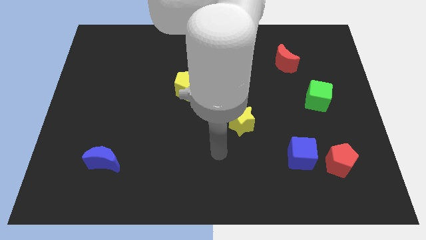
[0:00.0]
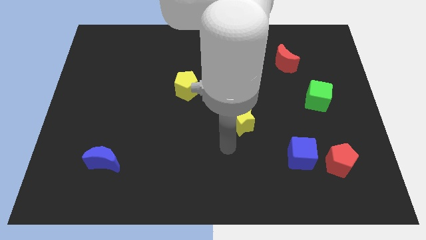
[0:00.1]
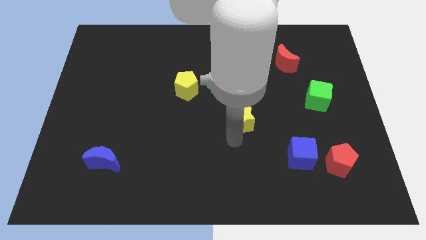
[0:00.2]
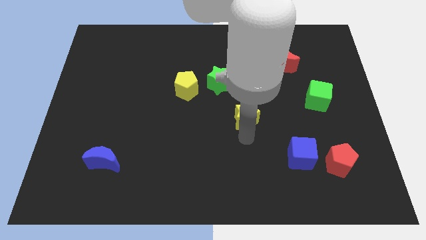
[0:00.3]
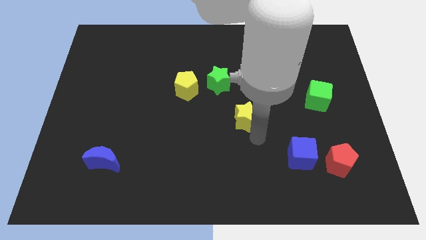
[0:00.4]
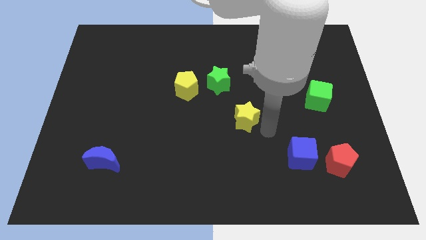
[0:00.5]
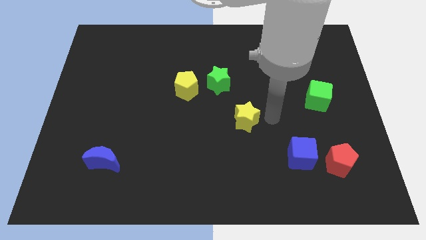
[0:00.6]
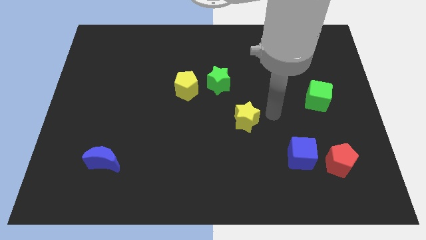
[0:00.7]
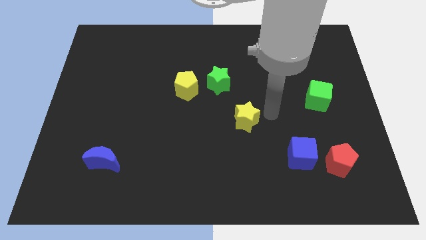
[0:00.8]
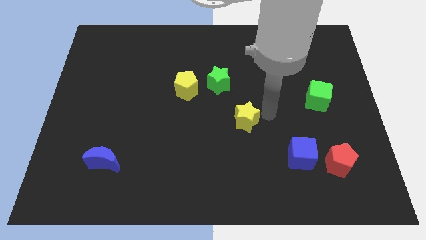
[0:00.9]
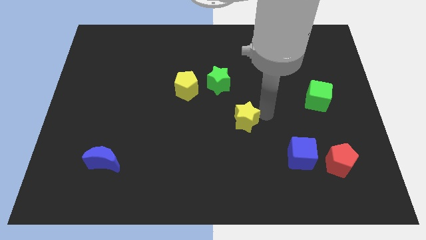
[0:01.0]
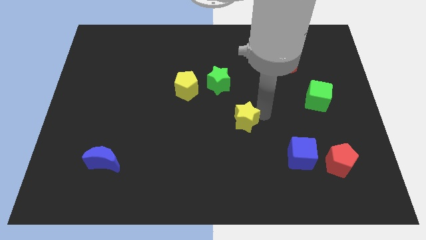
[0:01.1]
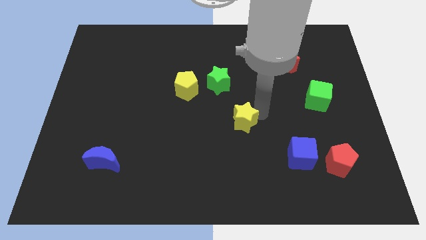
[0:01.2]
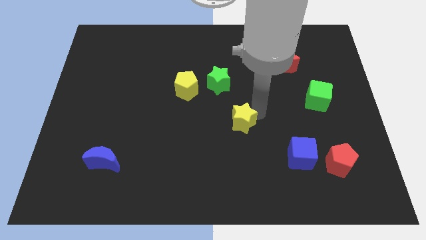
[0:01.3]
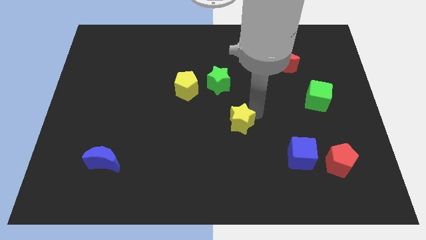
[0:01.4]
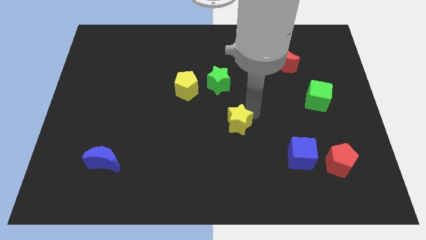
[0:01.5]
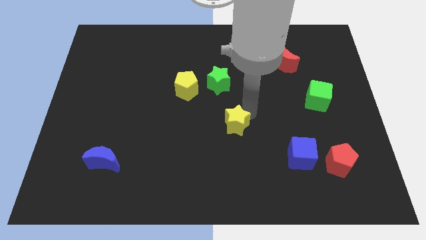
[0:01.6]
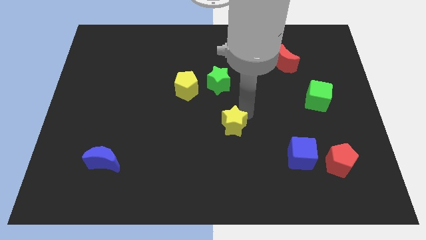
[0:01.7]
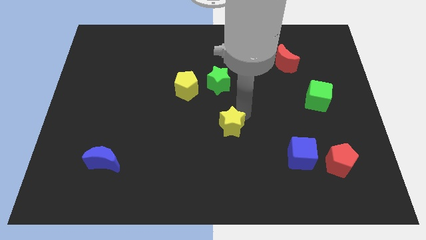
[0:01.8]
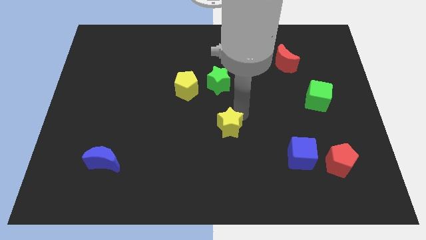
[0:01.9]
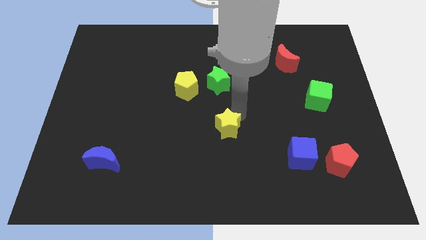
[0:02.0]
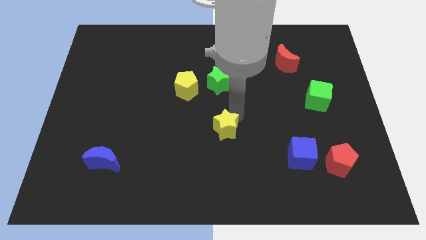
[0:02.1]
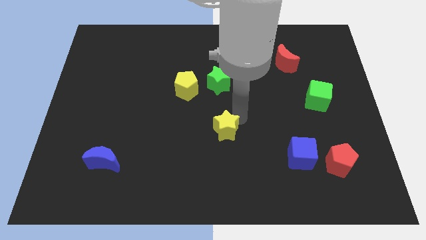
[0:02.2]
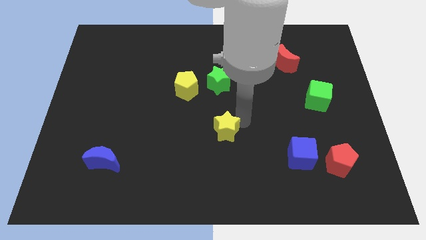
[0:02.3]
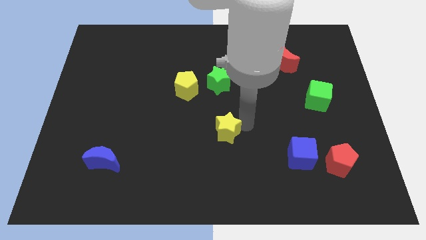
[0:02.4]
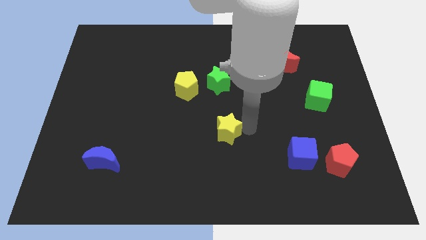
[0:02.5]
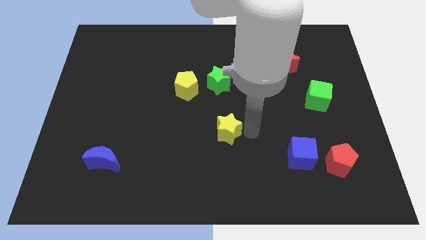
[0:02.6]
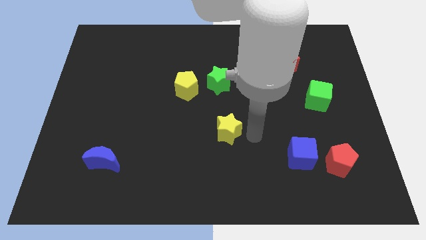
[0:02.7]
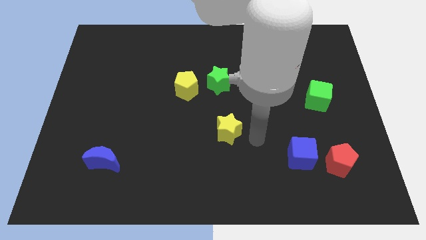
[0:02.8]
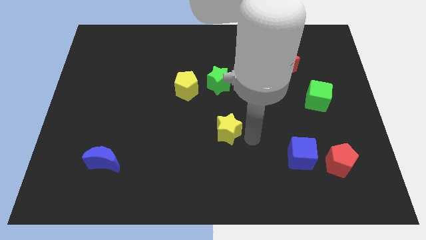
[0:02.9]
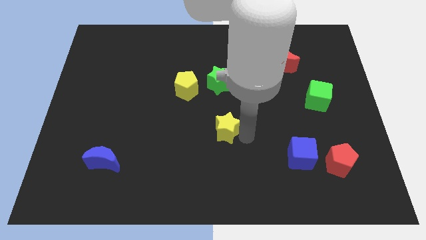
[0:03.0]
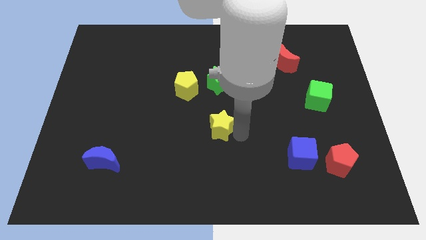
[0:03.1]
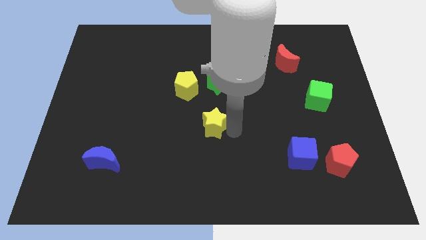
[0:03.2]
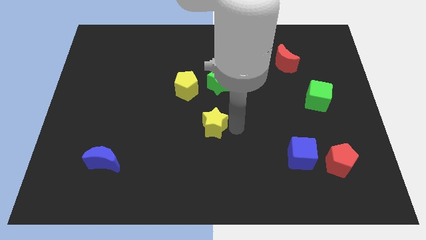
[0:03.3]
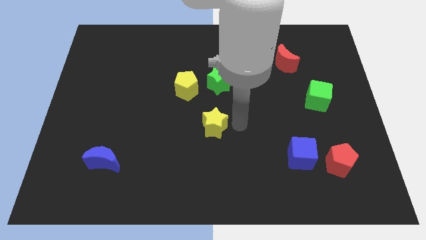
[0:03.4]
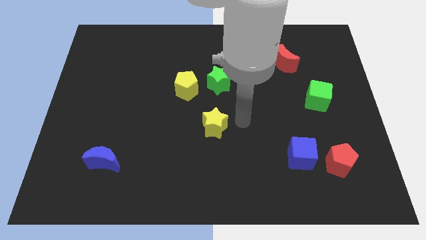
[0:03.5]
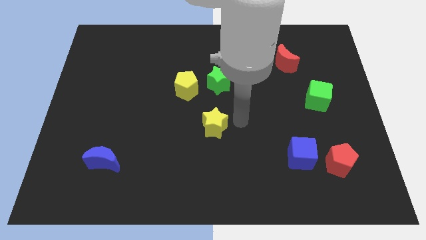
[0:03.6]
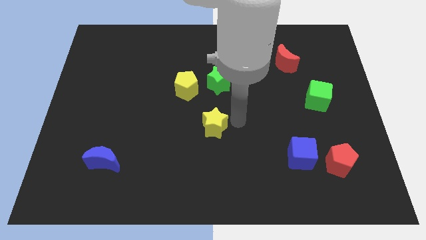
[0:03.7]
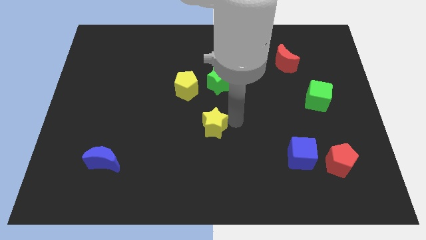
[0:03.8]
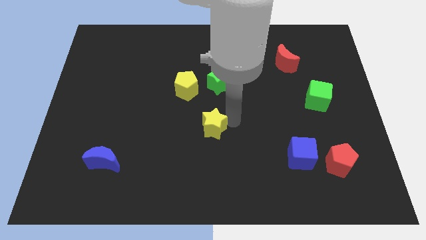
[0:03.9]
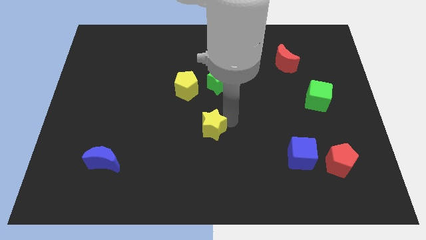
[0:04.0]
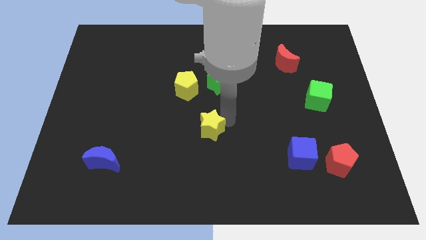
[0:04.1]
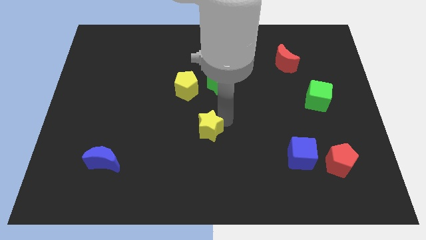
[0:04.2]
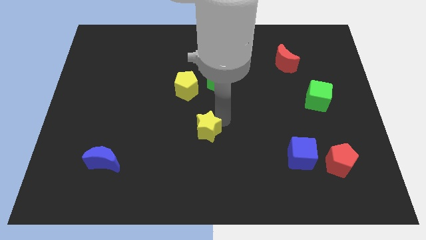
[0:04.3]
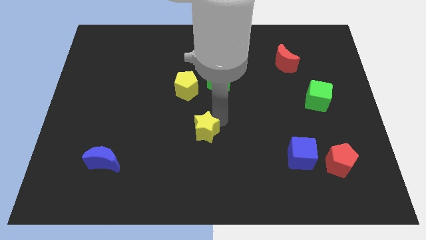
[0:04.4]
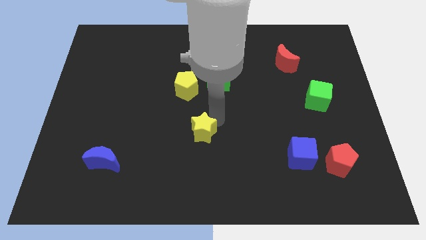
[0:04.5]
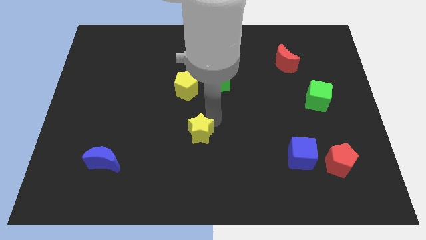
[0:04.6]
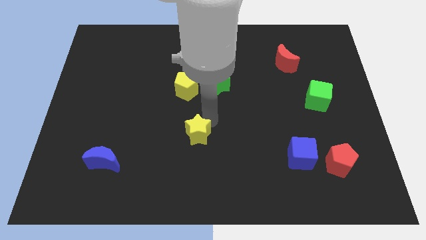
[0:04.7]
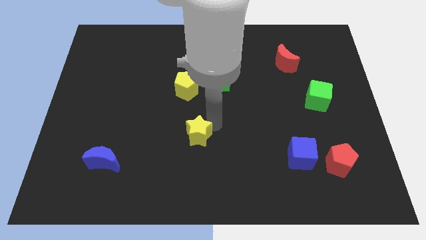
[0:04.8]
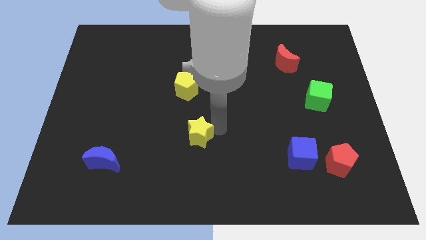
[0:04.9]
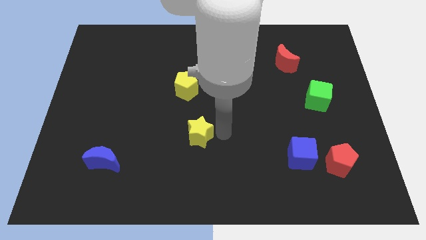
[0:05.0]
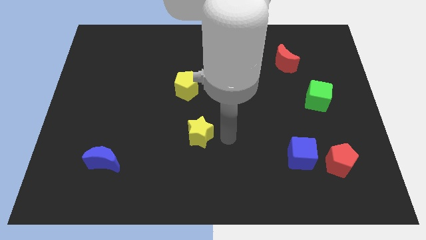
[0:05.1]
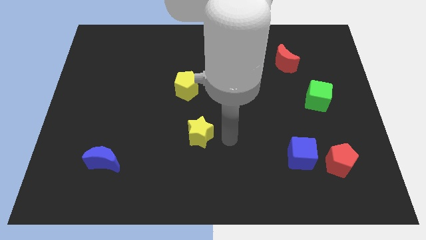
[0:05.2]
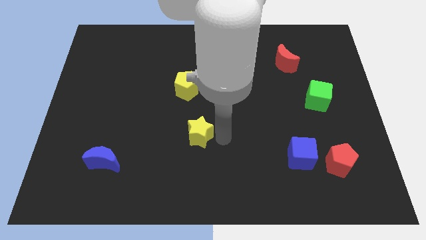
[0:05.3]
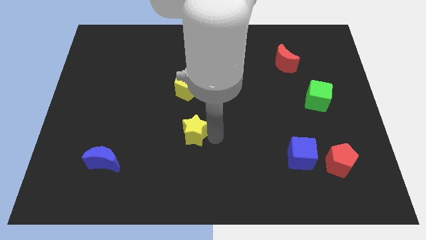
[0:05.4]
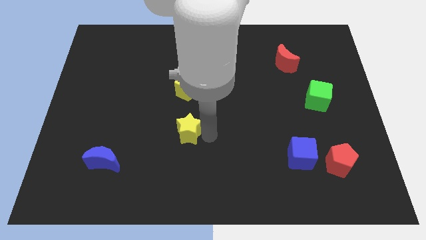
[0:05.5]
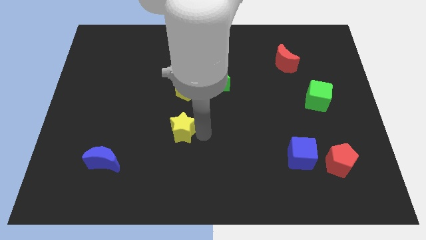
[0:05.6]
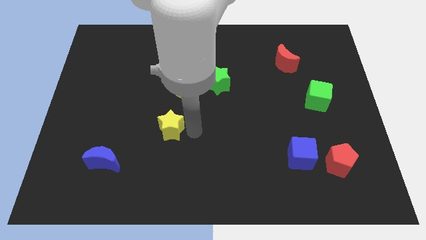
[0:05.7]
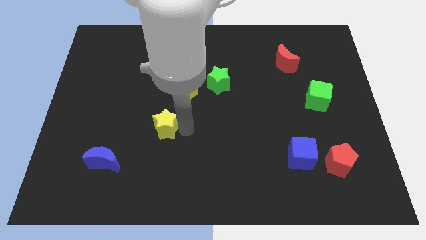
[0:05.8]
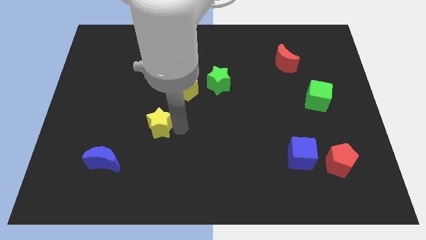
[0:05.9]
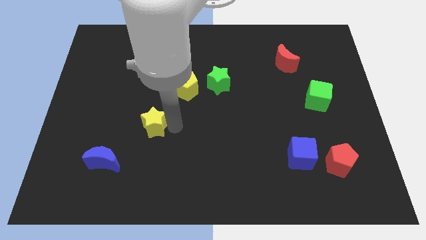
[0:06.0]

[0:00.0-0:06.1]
slide the yellow star left

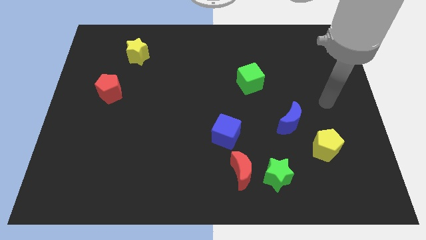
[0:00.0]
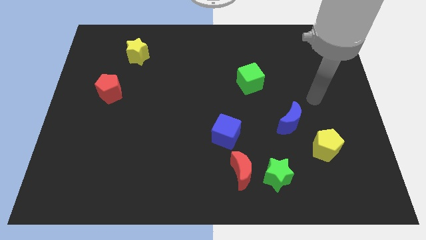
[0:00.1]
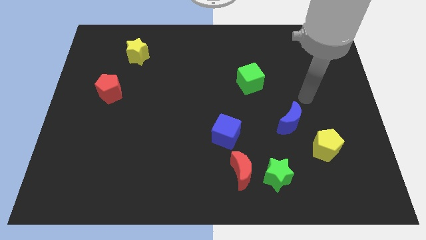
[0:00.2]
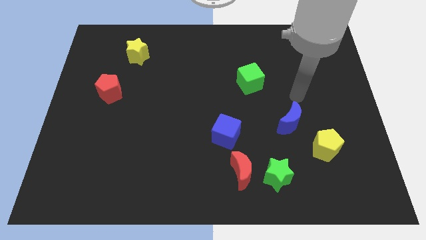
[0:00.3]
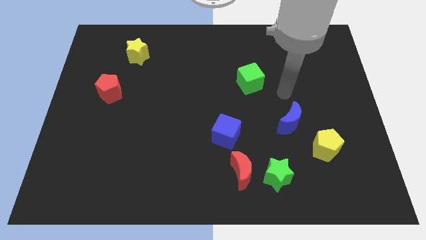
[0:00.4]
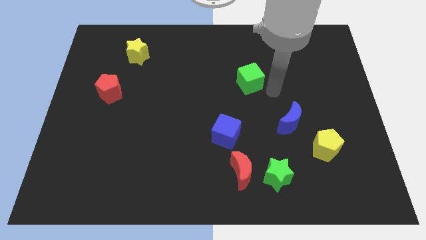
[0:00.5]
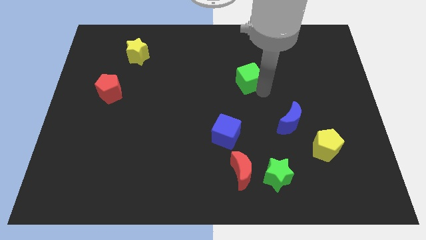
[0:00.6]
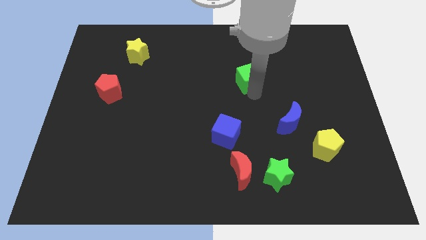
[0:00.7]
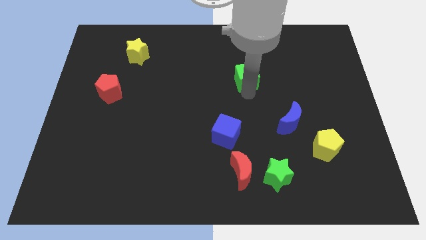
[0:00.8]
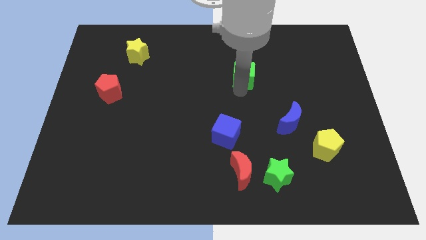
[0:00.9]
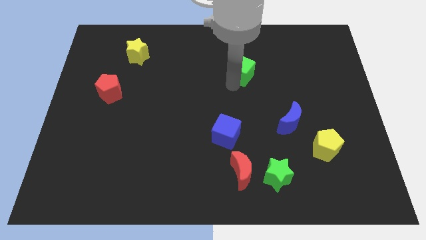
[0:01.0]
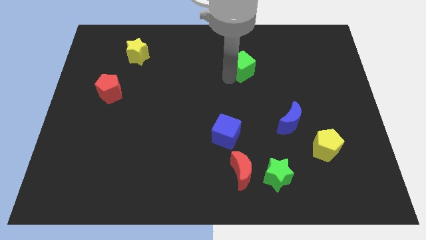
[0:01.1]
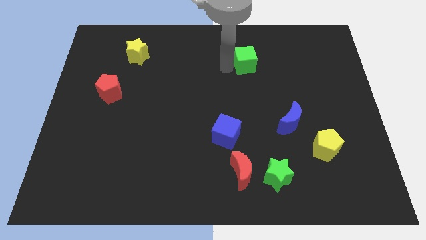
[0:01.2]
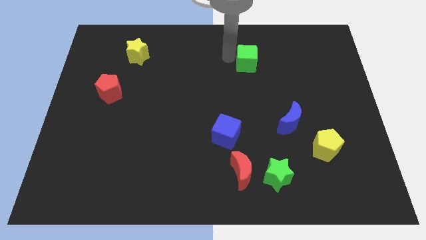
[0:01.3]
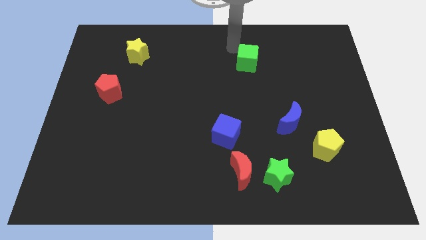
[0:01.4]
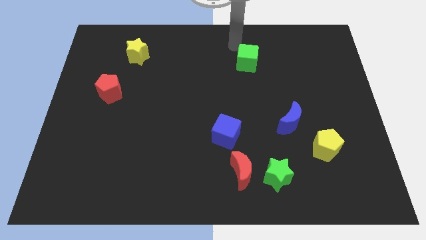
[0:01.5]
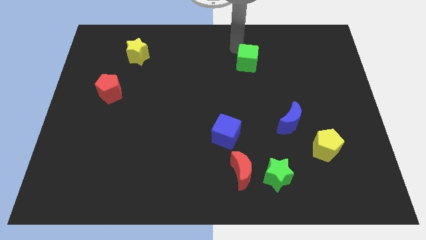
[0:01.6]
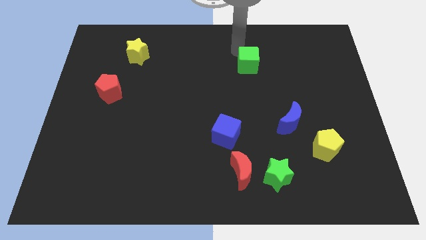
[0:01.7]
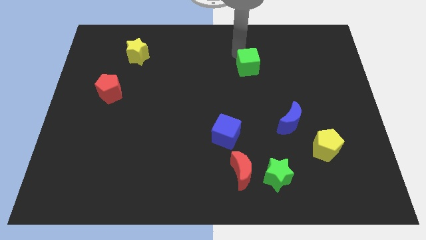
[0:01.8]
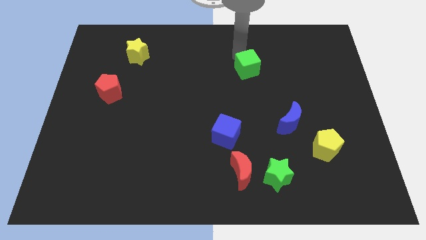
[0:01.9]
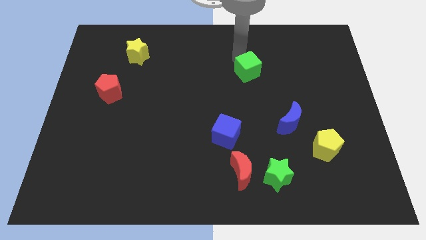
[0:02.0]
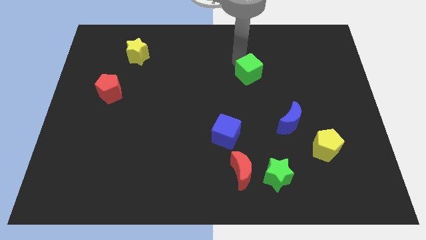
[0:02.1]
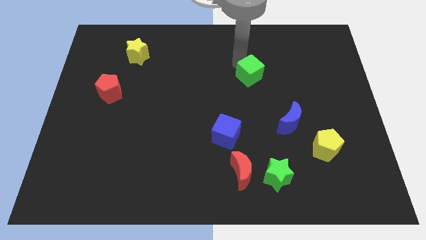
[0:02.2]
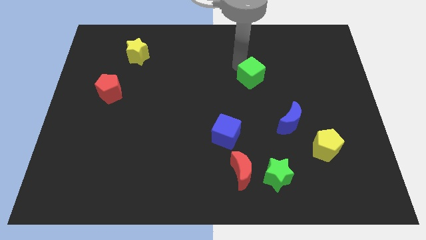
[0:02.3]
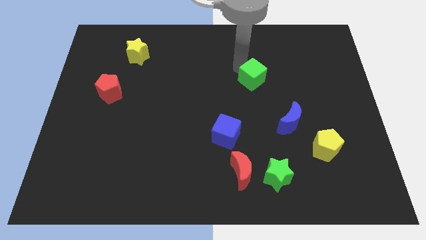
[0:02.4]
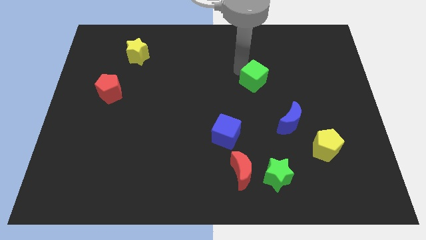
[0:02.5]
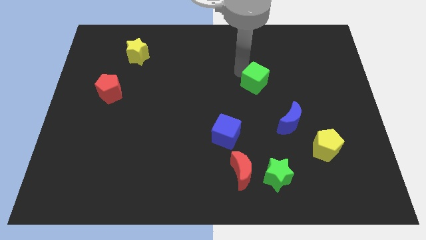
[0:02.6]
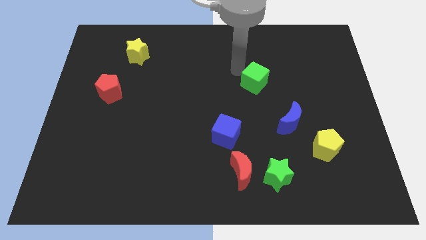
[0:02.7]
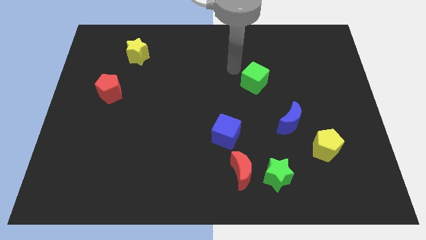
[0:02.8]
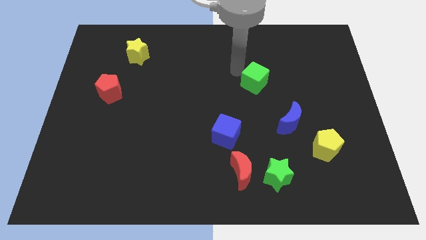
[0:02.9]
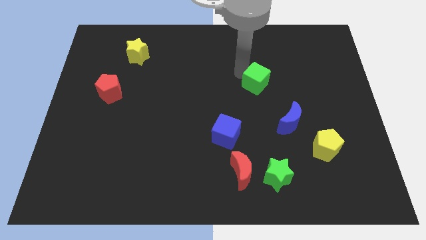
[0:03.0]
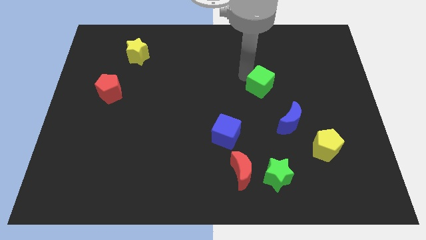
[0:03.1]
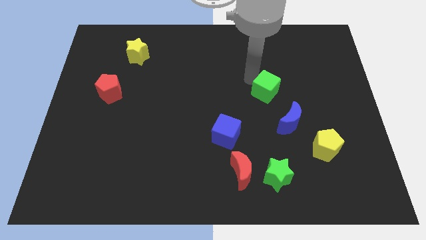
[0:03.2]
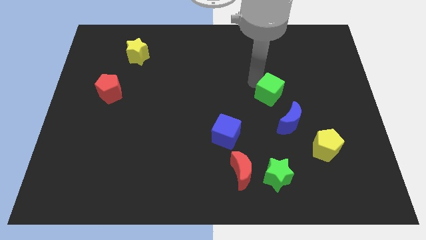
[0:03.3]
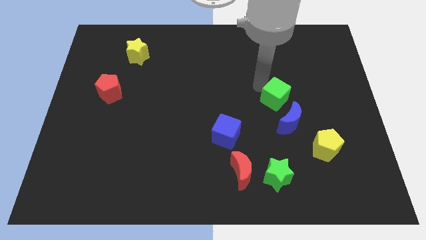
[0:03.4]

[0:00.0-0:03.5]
slide the green cube diagonally down and right slightly
